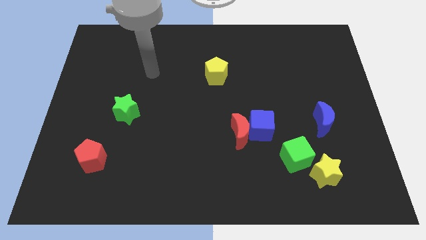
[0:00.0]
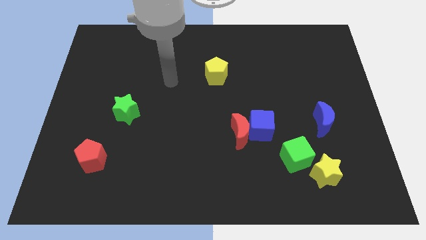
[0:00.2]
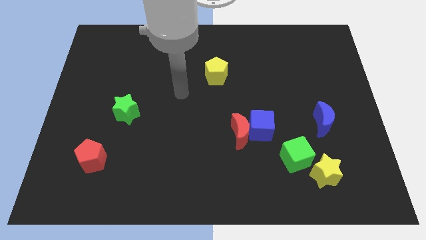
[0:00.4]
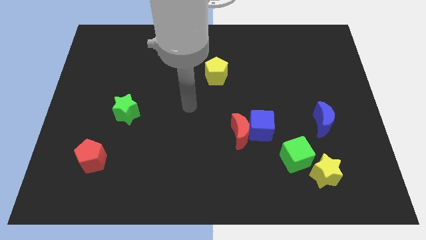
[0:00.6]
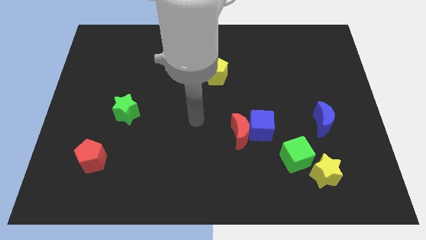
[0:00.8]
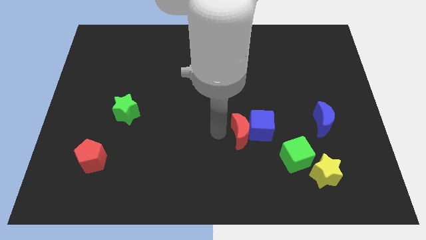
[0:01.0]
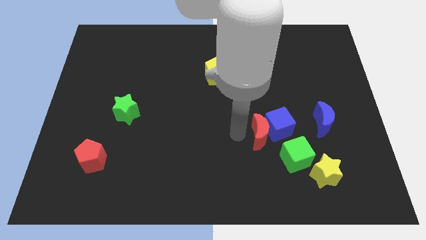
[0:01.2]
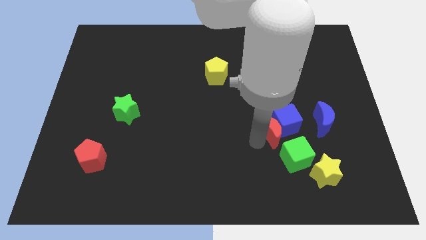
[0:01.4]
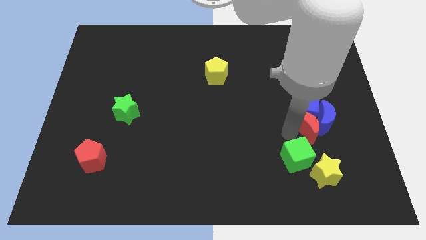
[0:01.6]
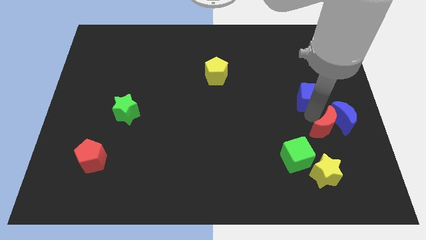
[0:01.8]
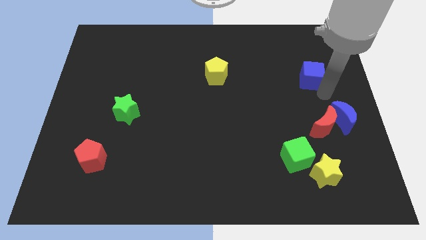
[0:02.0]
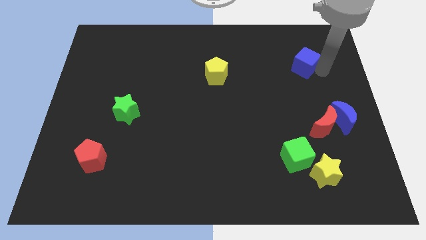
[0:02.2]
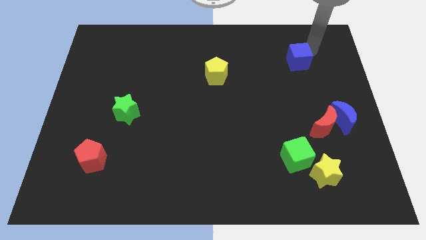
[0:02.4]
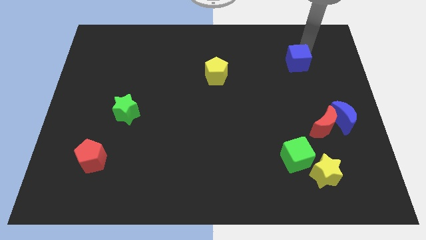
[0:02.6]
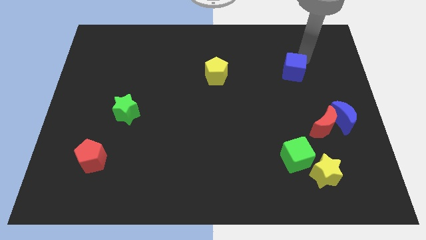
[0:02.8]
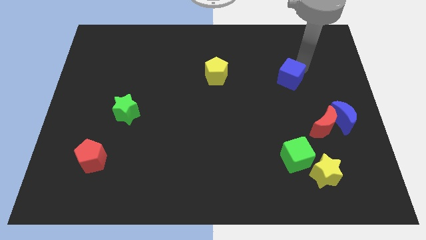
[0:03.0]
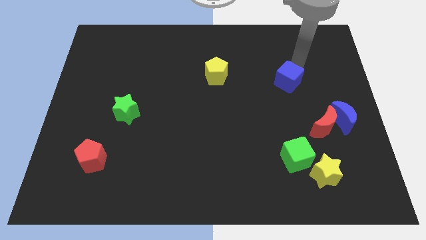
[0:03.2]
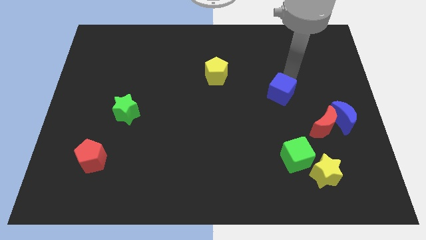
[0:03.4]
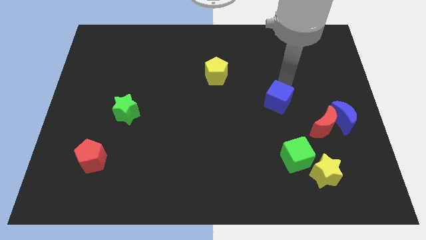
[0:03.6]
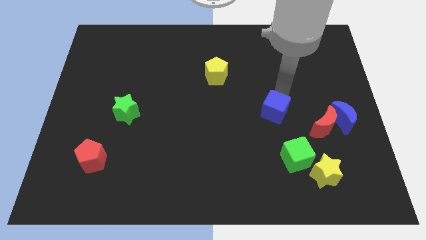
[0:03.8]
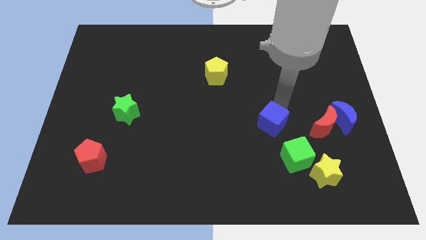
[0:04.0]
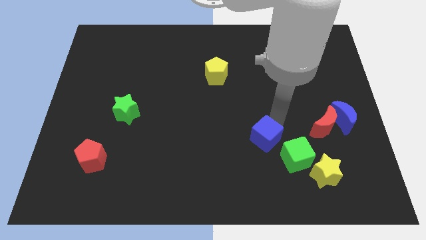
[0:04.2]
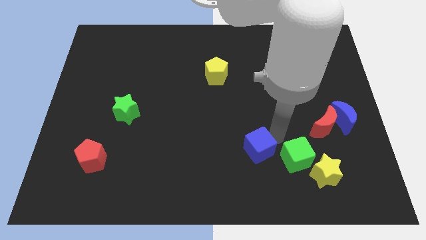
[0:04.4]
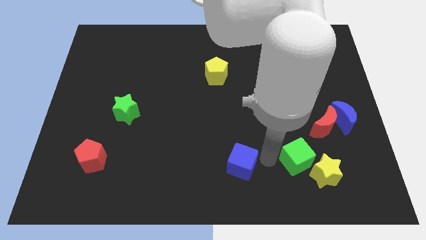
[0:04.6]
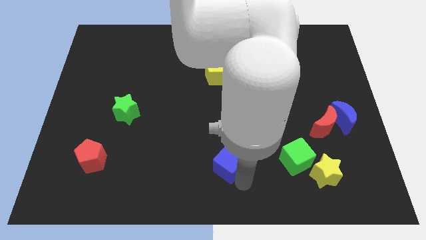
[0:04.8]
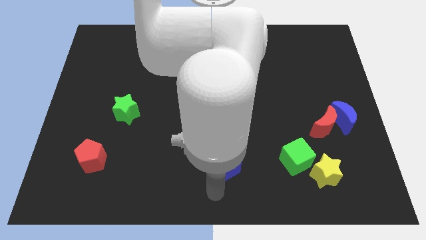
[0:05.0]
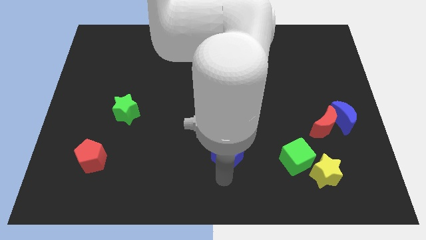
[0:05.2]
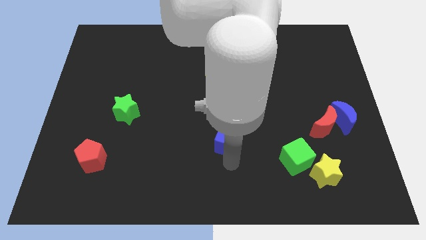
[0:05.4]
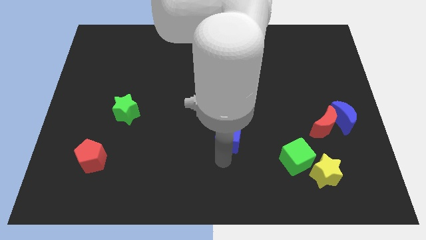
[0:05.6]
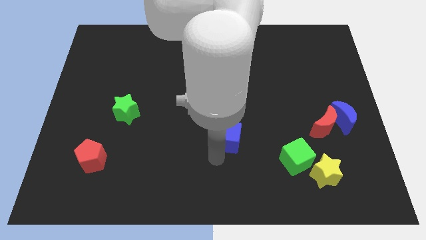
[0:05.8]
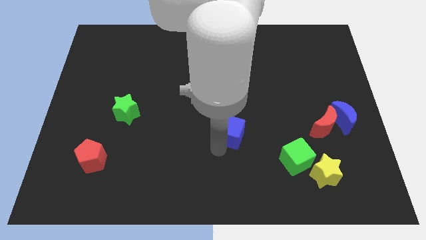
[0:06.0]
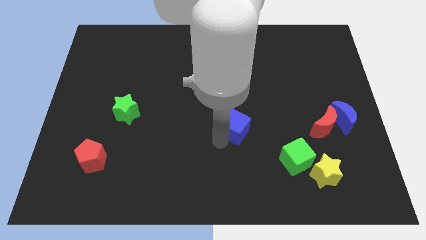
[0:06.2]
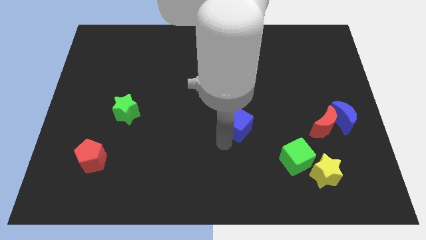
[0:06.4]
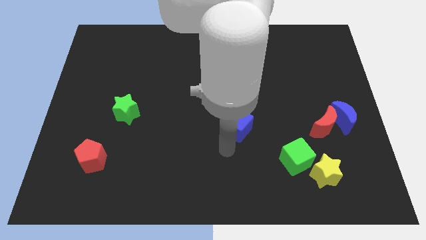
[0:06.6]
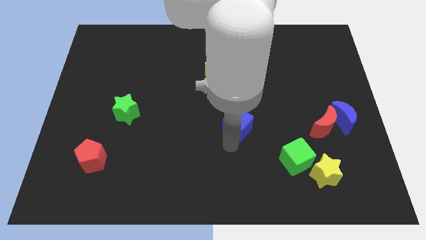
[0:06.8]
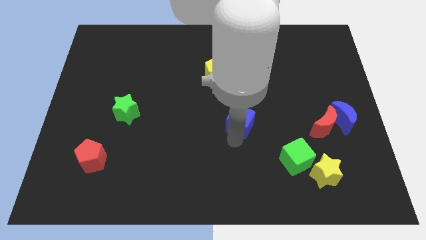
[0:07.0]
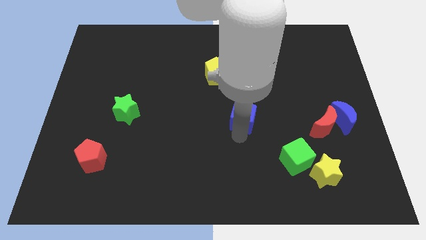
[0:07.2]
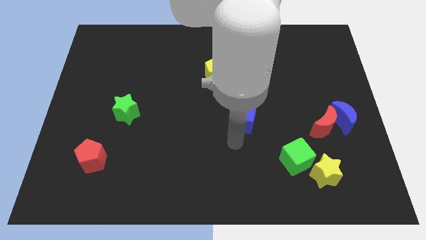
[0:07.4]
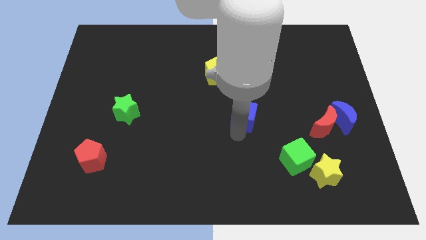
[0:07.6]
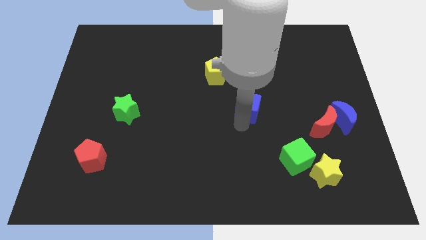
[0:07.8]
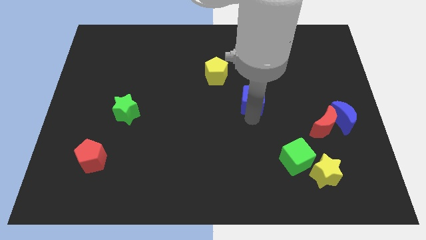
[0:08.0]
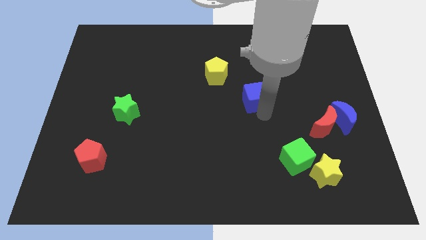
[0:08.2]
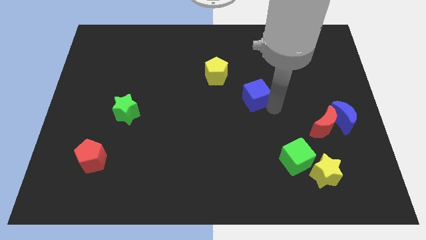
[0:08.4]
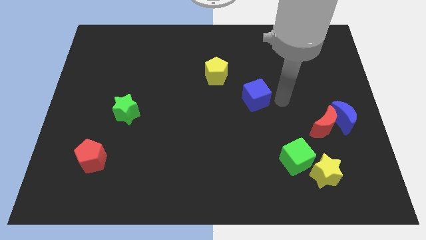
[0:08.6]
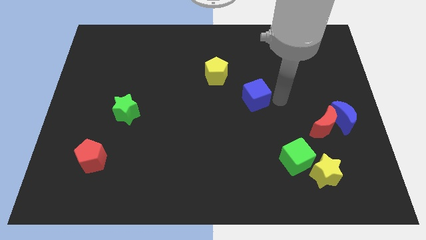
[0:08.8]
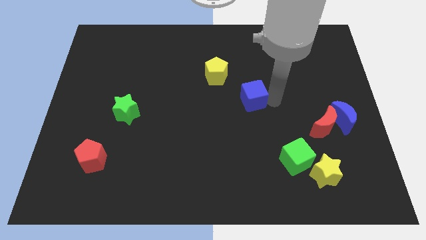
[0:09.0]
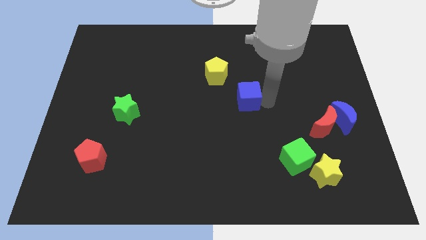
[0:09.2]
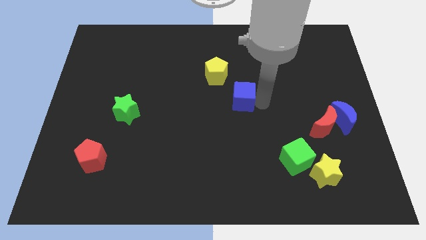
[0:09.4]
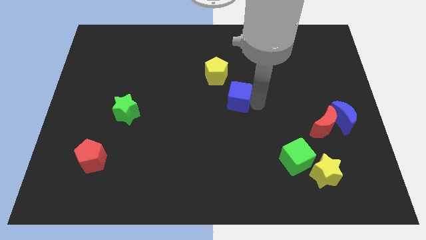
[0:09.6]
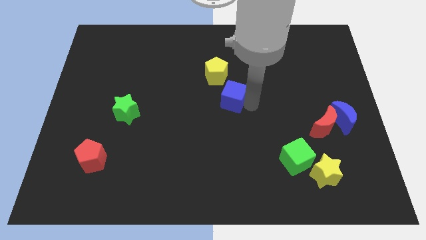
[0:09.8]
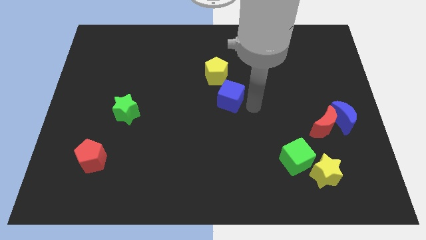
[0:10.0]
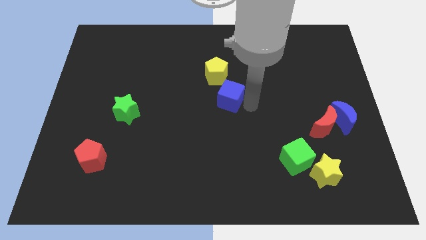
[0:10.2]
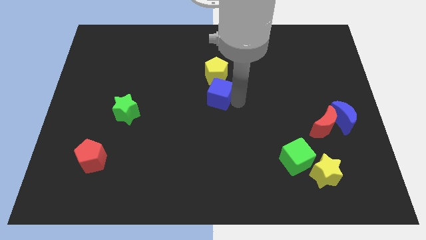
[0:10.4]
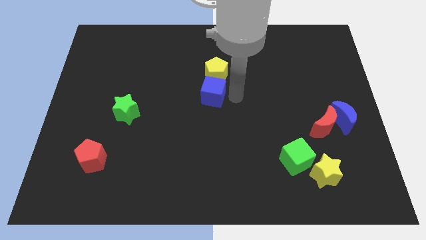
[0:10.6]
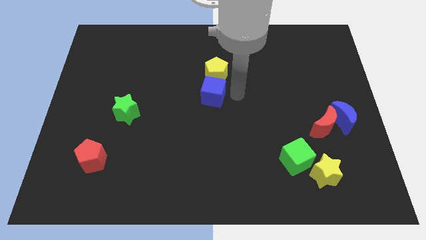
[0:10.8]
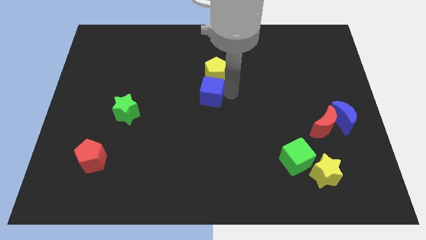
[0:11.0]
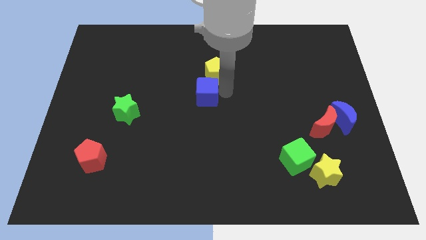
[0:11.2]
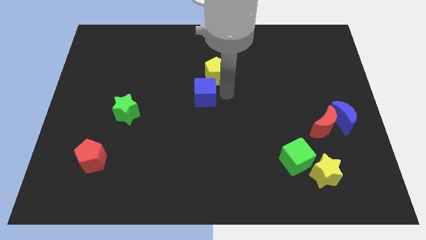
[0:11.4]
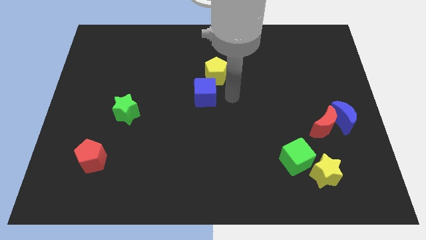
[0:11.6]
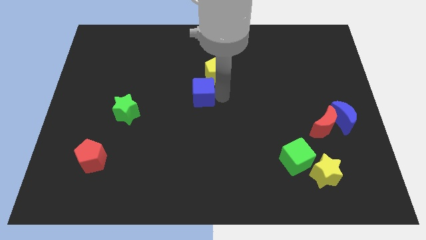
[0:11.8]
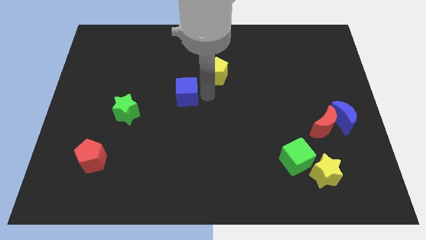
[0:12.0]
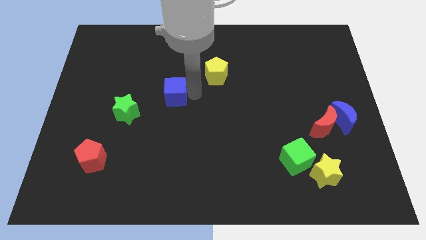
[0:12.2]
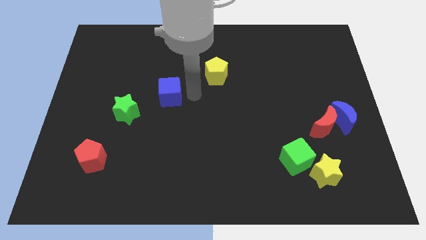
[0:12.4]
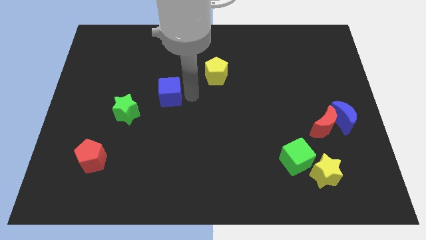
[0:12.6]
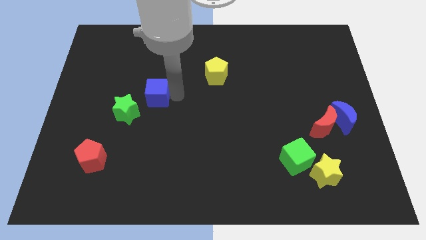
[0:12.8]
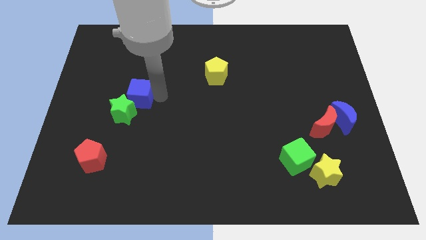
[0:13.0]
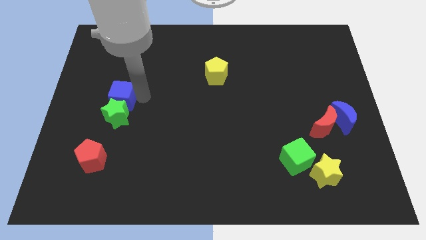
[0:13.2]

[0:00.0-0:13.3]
move the blue cube to the top left side of the green star

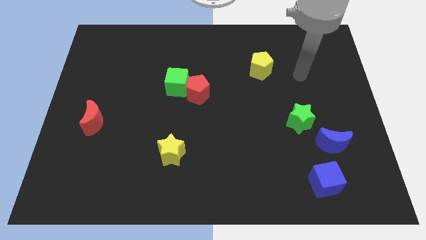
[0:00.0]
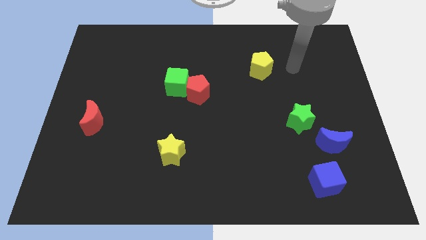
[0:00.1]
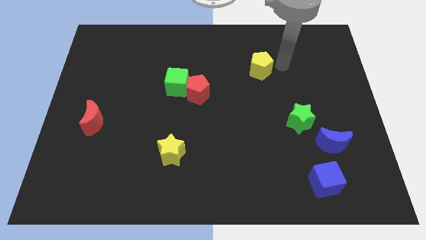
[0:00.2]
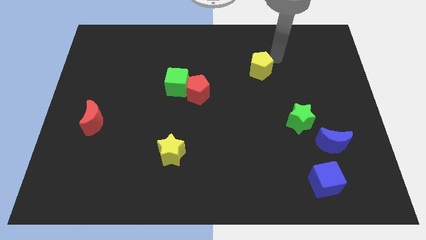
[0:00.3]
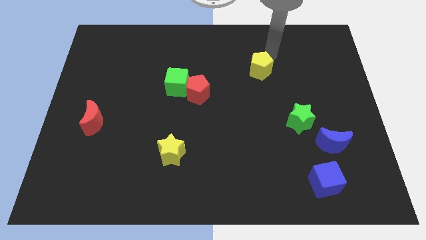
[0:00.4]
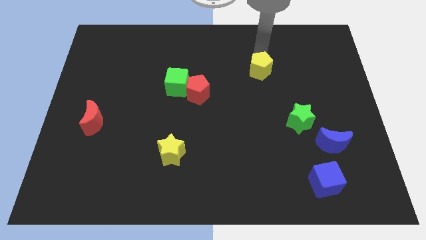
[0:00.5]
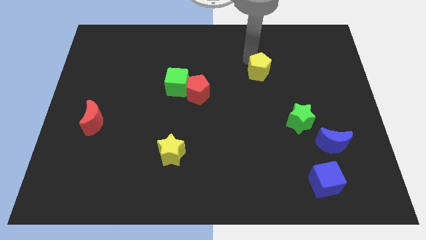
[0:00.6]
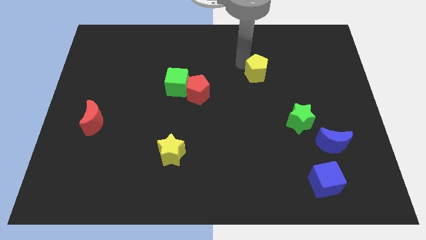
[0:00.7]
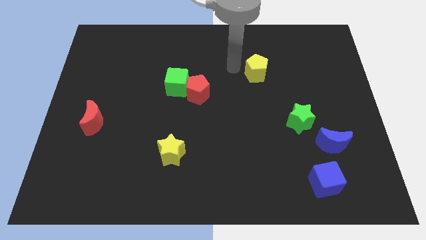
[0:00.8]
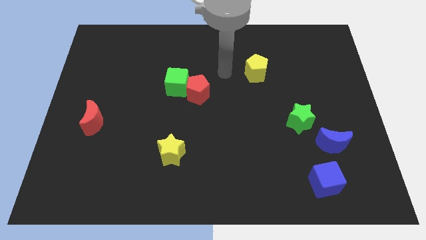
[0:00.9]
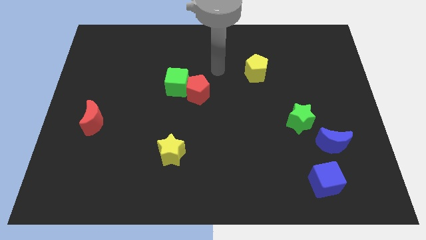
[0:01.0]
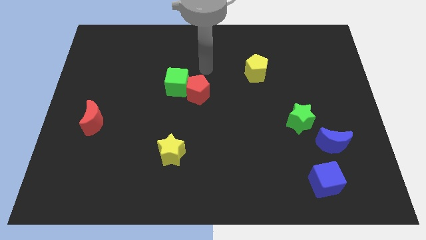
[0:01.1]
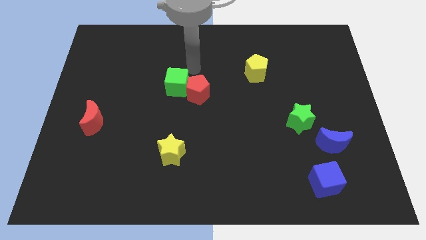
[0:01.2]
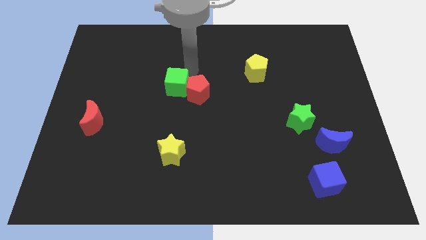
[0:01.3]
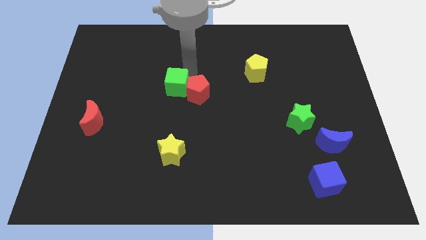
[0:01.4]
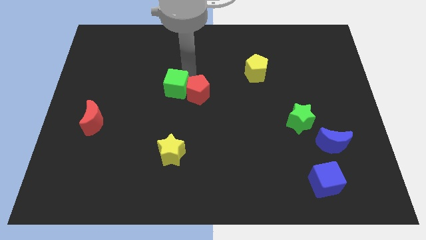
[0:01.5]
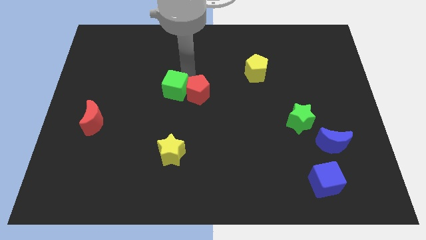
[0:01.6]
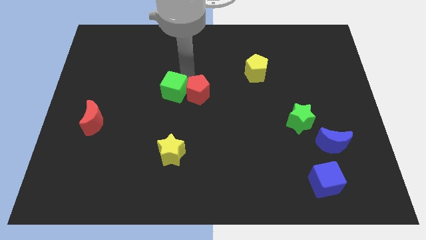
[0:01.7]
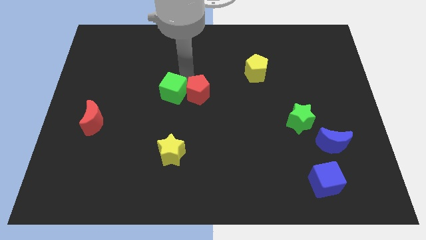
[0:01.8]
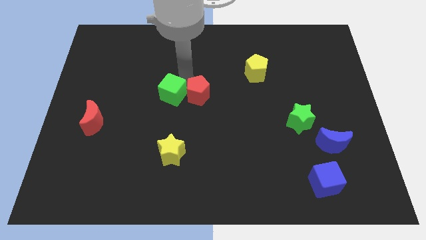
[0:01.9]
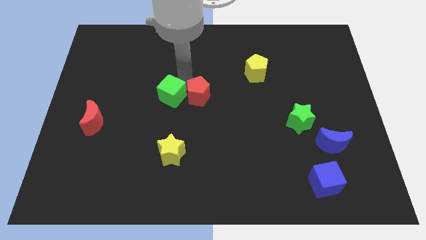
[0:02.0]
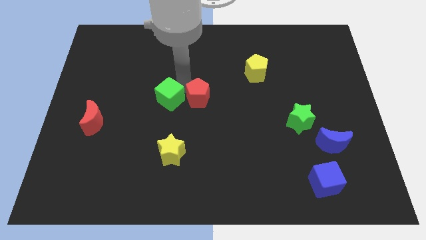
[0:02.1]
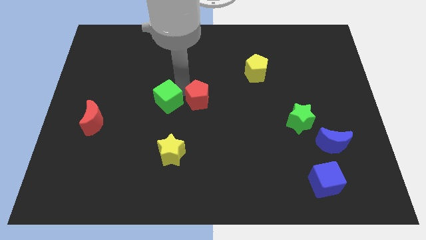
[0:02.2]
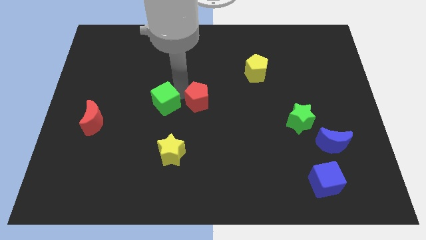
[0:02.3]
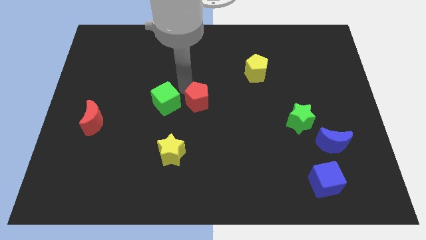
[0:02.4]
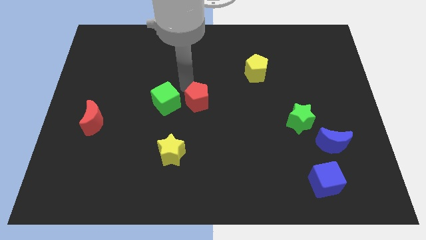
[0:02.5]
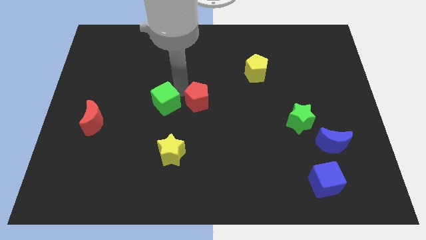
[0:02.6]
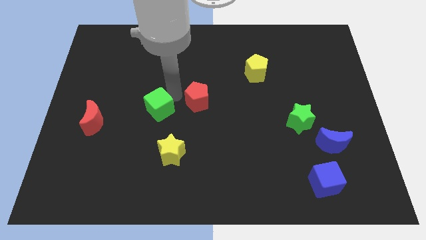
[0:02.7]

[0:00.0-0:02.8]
move the green cube to the right of the red moon
